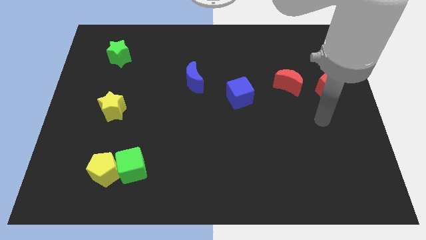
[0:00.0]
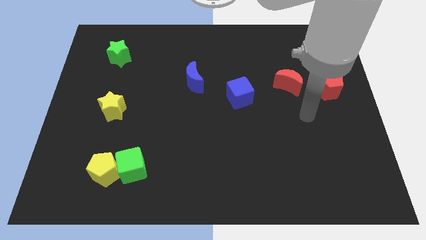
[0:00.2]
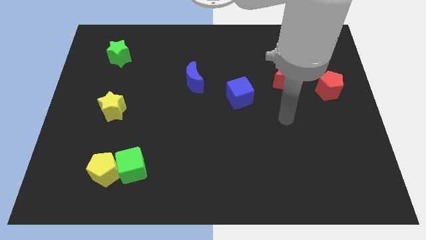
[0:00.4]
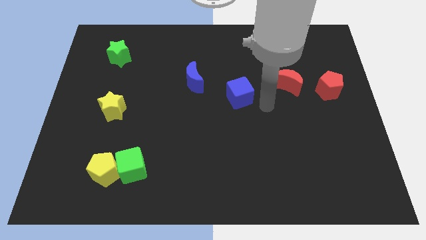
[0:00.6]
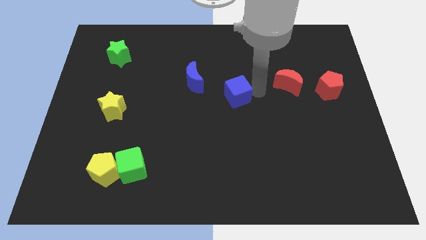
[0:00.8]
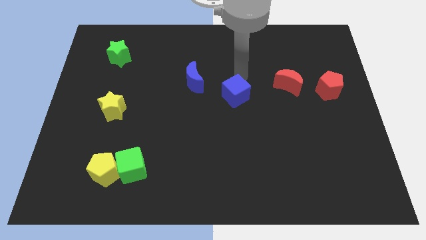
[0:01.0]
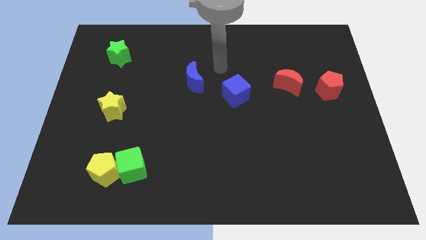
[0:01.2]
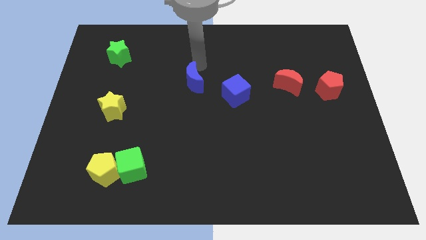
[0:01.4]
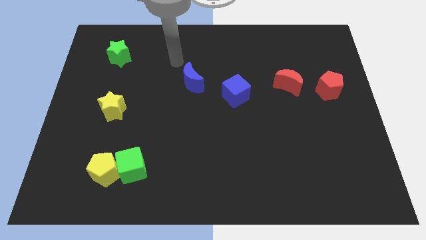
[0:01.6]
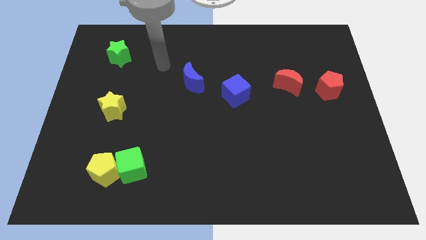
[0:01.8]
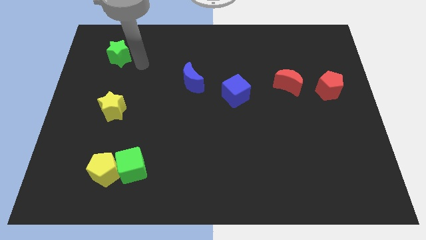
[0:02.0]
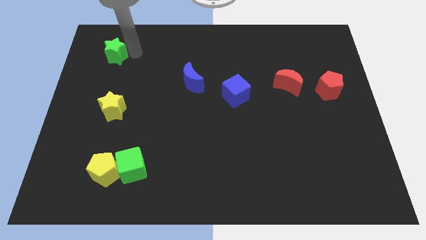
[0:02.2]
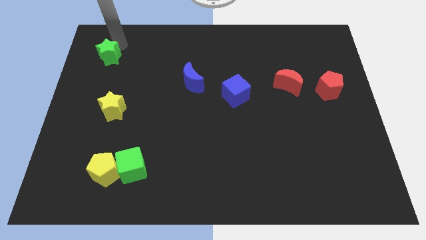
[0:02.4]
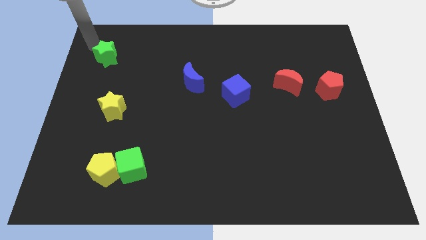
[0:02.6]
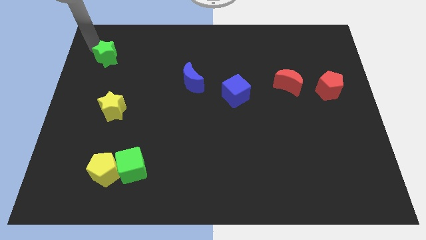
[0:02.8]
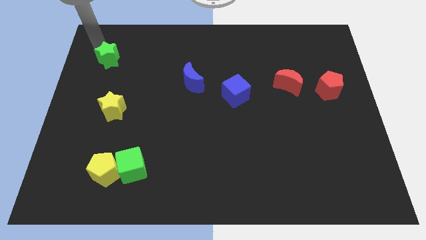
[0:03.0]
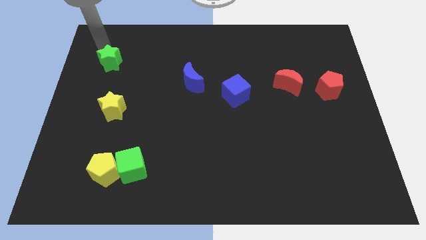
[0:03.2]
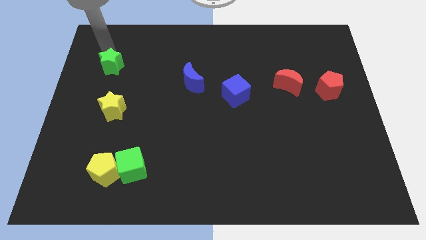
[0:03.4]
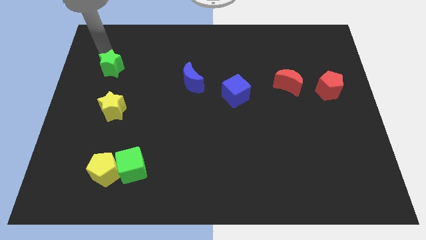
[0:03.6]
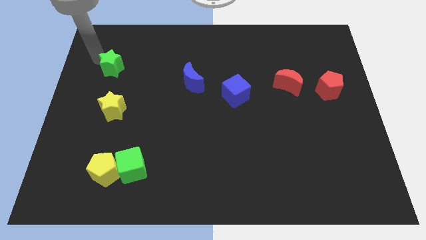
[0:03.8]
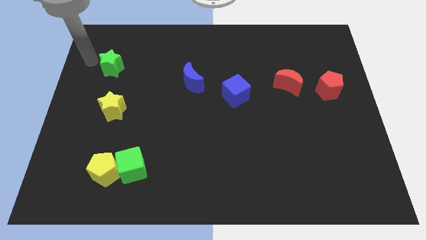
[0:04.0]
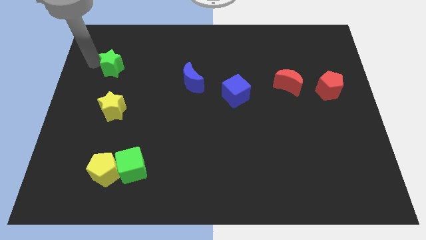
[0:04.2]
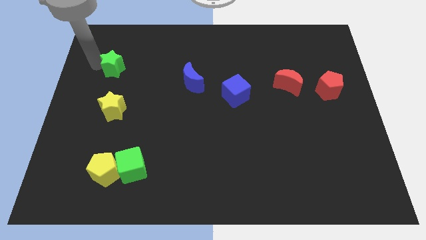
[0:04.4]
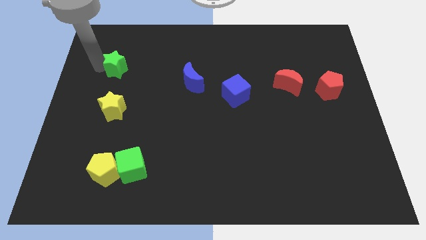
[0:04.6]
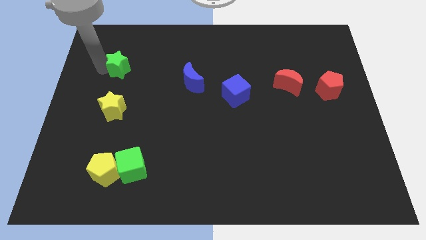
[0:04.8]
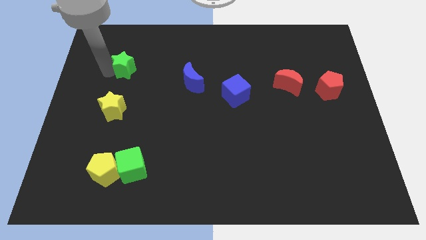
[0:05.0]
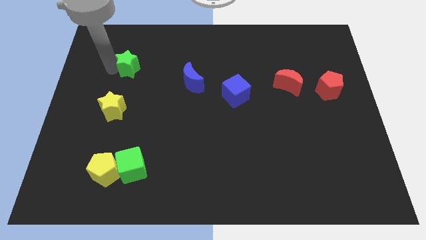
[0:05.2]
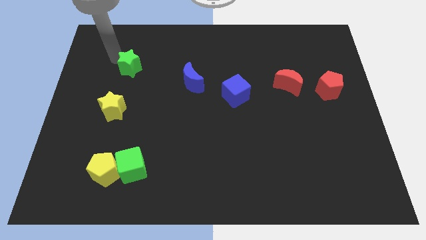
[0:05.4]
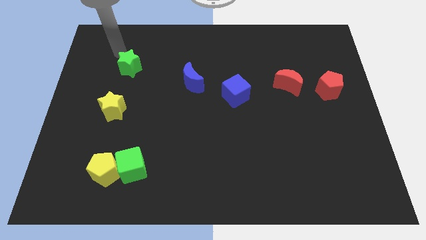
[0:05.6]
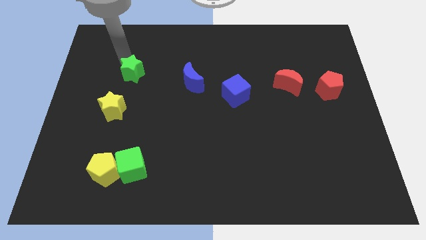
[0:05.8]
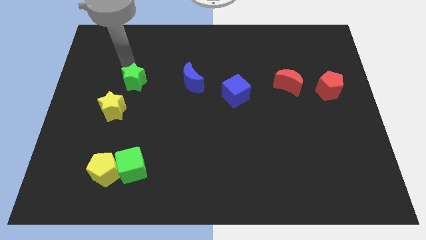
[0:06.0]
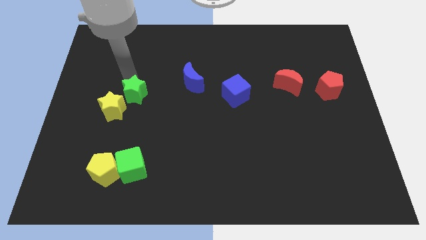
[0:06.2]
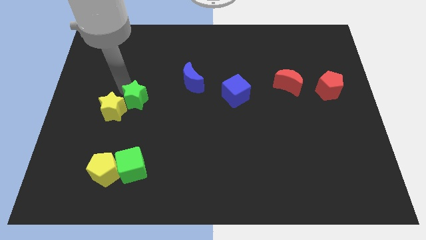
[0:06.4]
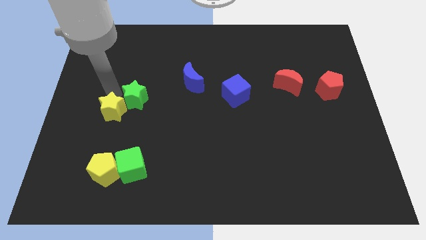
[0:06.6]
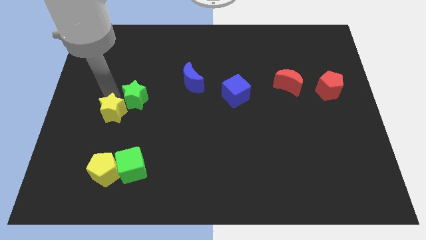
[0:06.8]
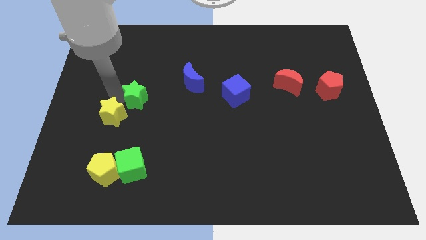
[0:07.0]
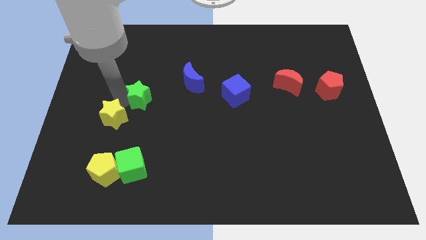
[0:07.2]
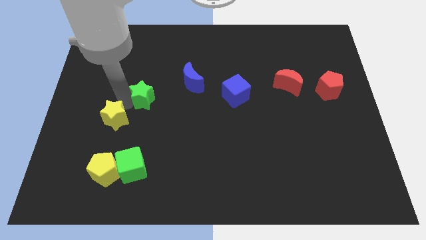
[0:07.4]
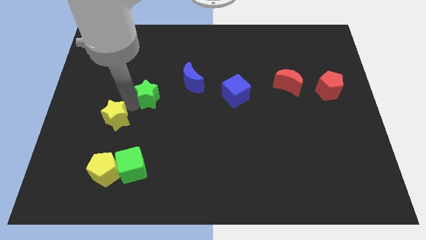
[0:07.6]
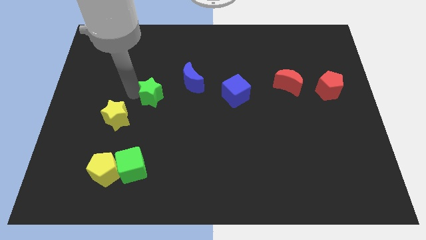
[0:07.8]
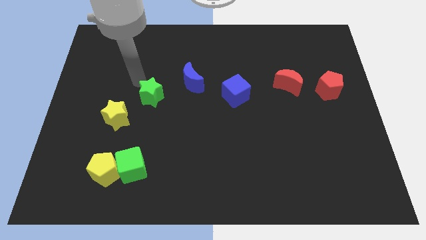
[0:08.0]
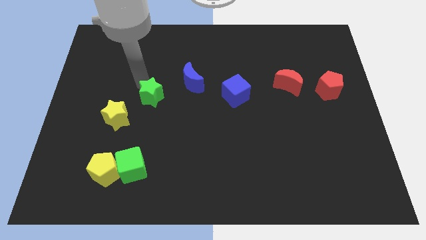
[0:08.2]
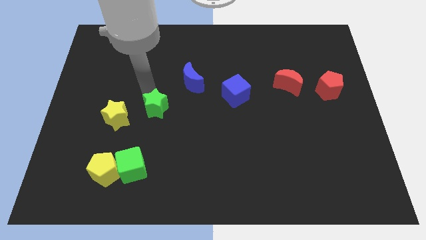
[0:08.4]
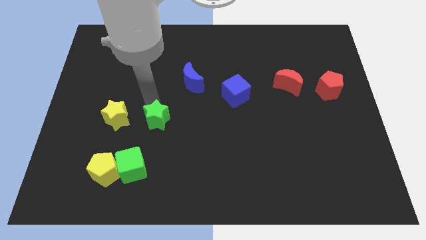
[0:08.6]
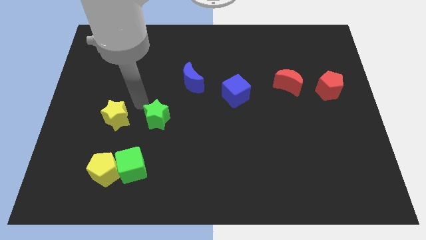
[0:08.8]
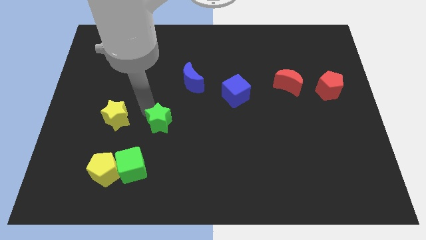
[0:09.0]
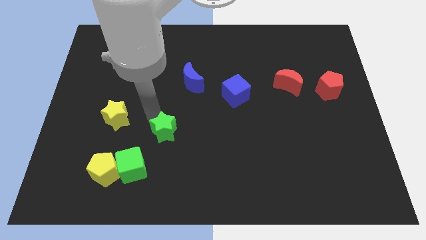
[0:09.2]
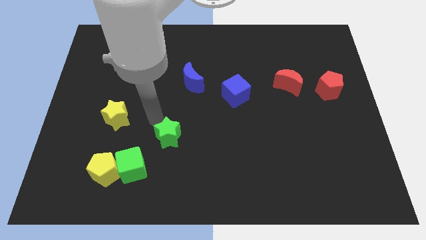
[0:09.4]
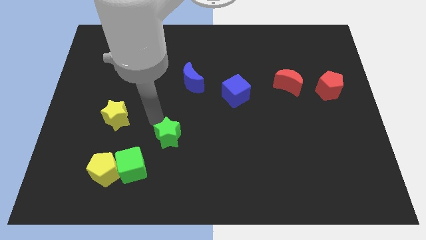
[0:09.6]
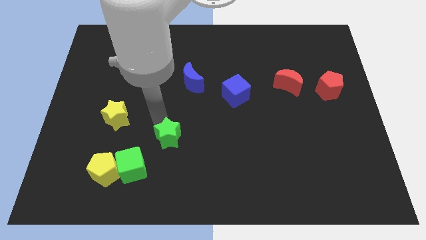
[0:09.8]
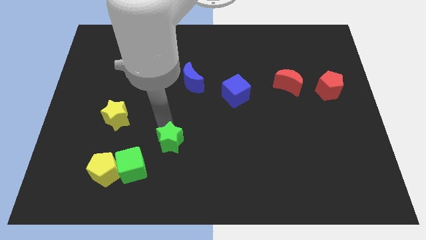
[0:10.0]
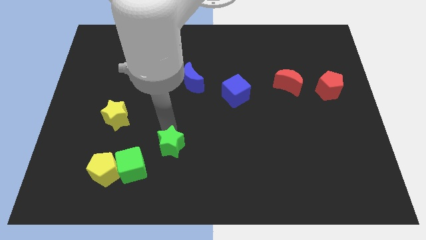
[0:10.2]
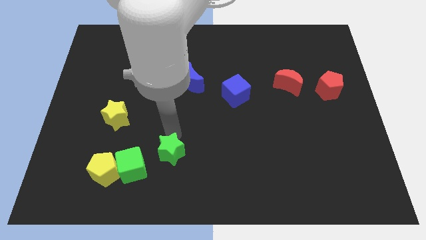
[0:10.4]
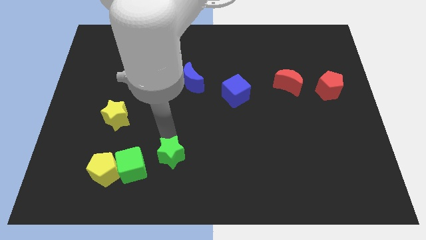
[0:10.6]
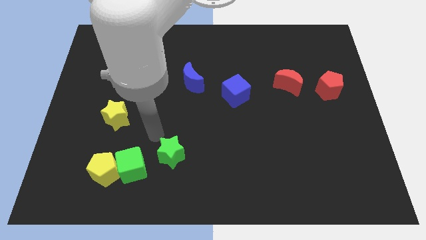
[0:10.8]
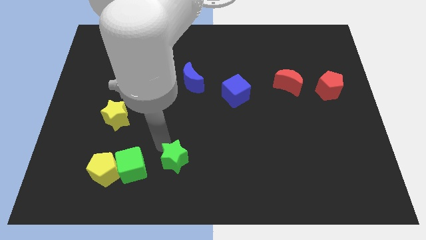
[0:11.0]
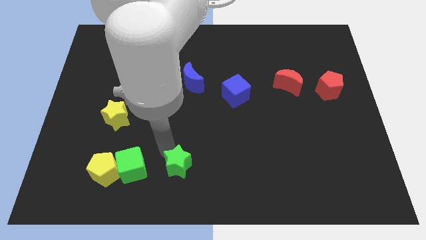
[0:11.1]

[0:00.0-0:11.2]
put the green star to the bottom

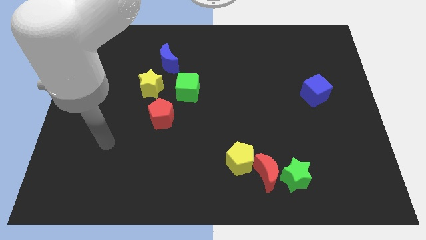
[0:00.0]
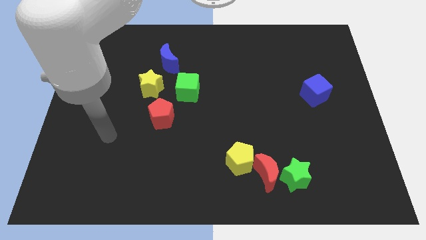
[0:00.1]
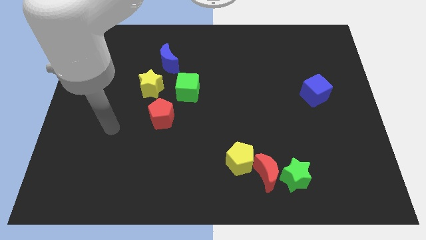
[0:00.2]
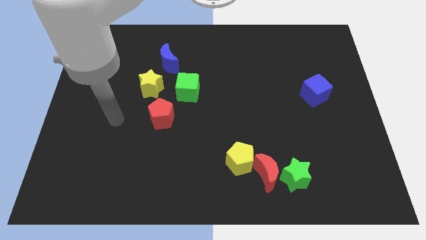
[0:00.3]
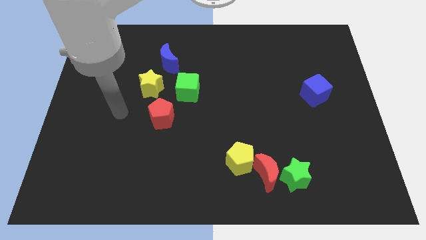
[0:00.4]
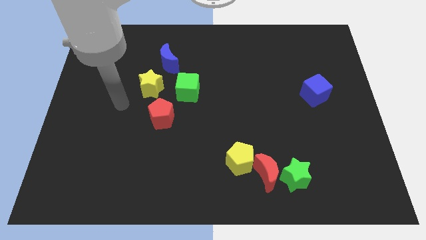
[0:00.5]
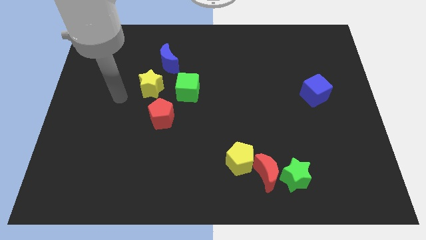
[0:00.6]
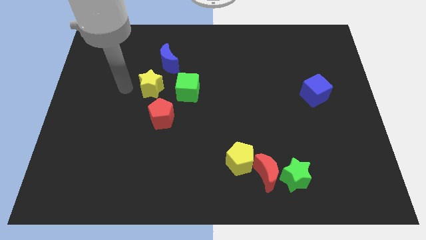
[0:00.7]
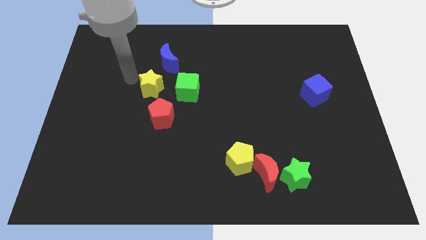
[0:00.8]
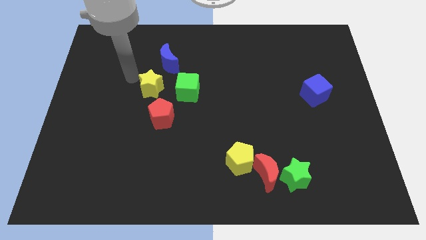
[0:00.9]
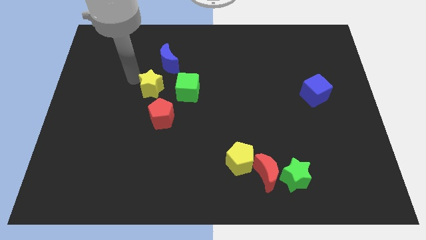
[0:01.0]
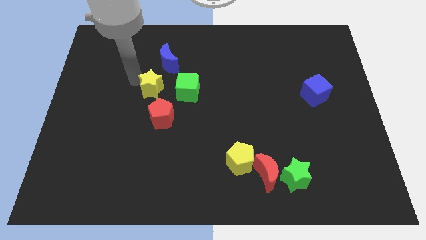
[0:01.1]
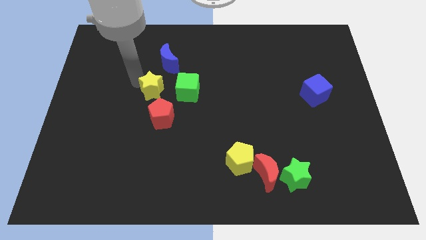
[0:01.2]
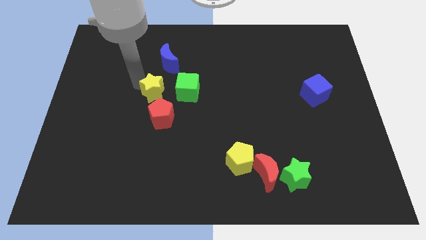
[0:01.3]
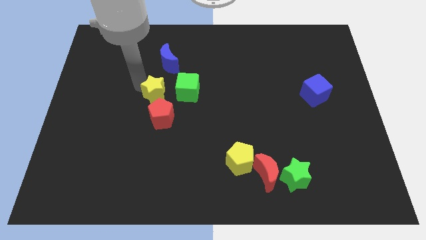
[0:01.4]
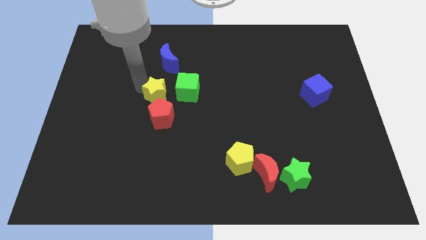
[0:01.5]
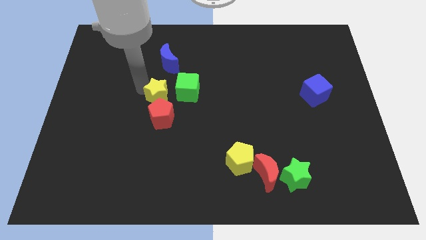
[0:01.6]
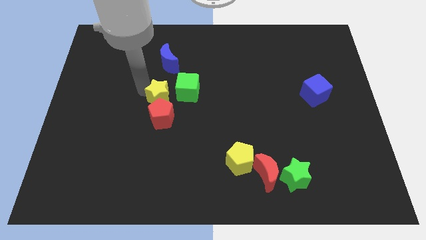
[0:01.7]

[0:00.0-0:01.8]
push the yellow star to the center of the board
